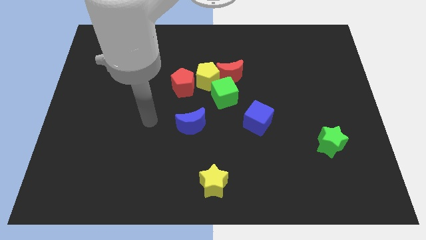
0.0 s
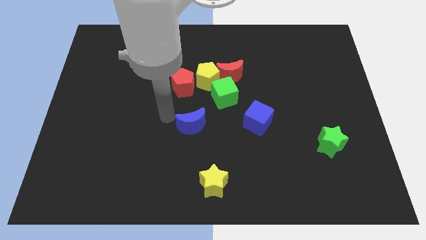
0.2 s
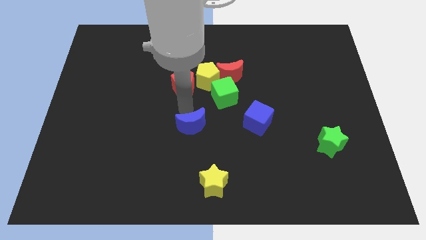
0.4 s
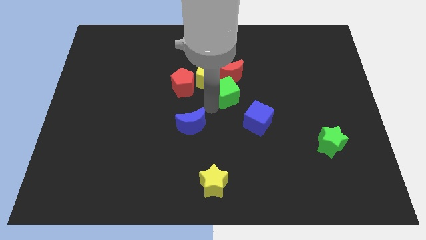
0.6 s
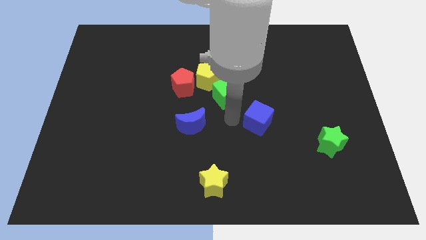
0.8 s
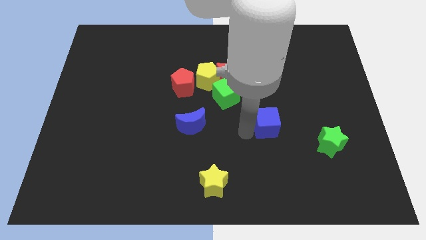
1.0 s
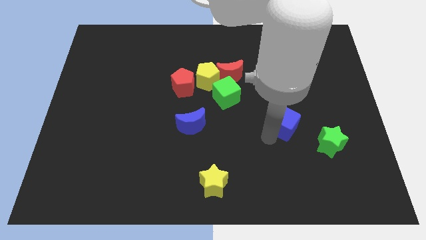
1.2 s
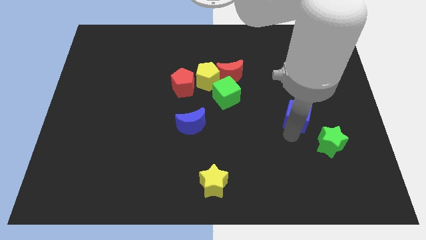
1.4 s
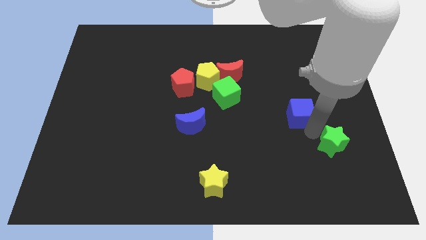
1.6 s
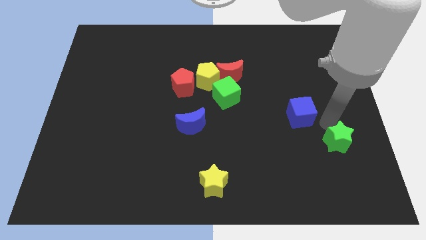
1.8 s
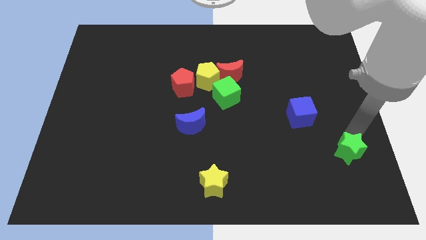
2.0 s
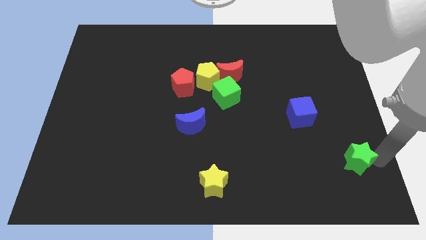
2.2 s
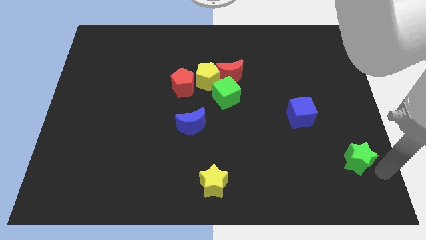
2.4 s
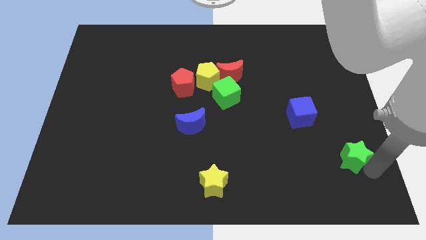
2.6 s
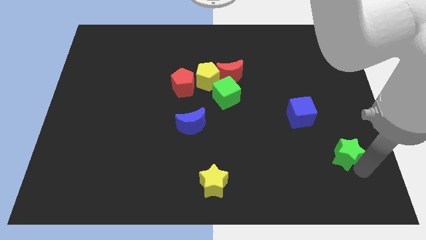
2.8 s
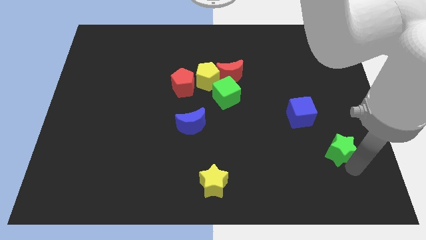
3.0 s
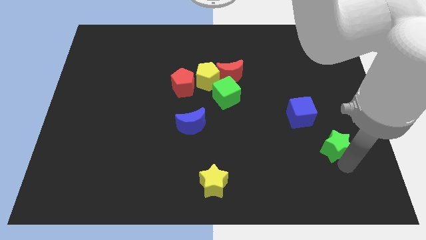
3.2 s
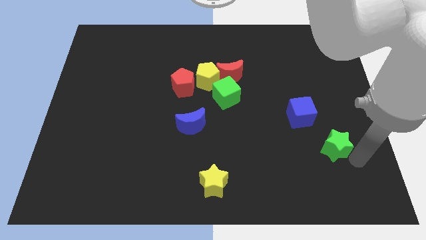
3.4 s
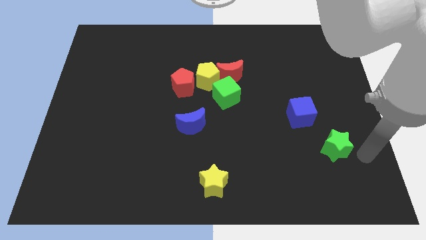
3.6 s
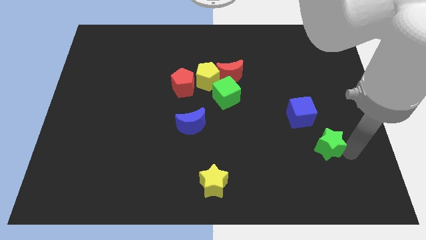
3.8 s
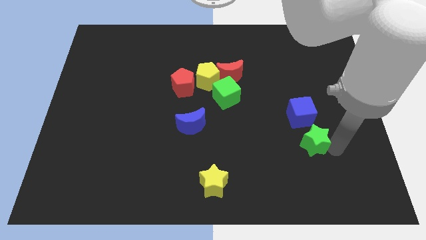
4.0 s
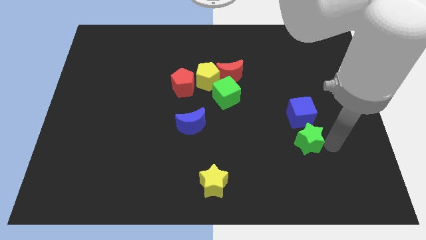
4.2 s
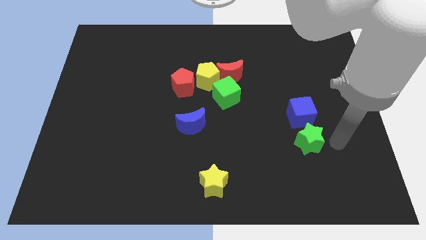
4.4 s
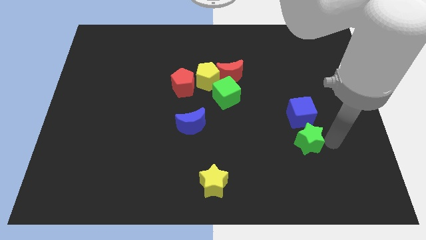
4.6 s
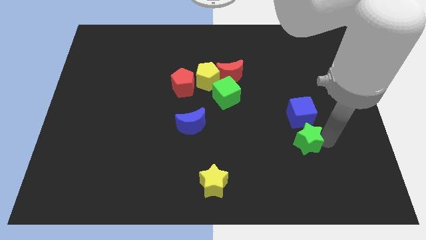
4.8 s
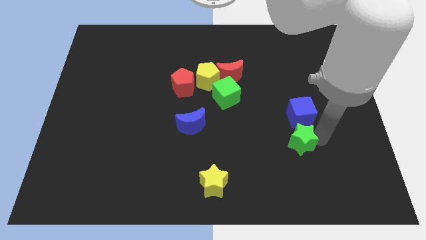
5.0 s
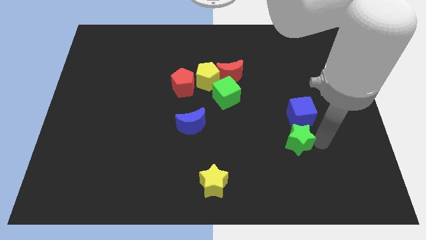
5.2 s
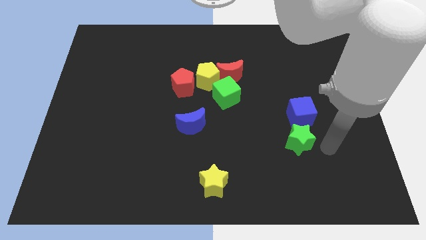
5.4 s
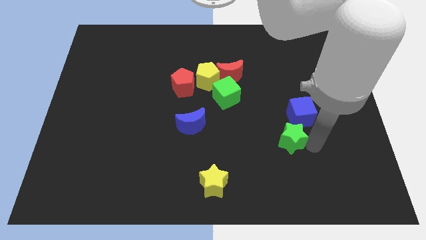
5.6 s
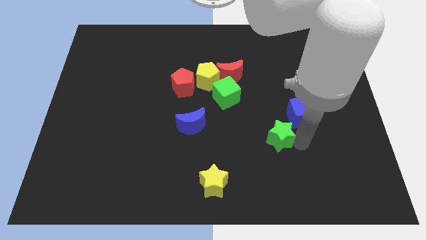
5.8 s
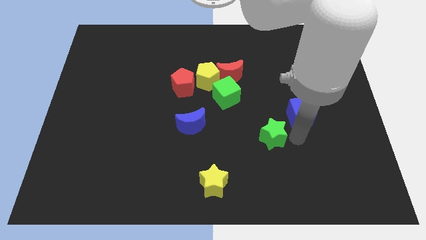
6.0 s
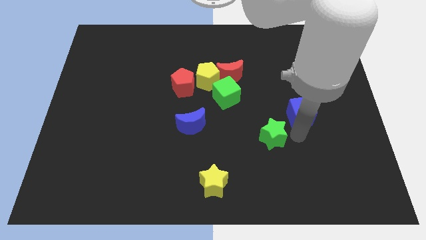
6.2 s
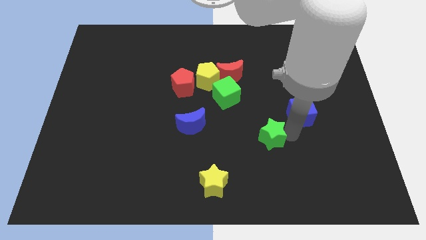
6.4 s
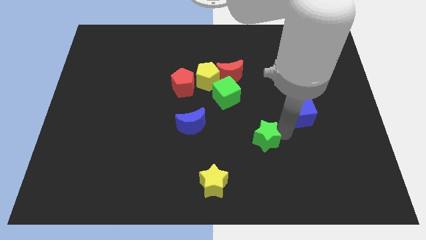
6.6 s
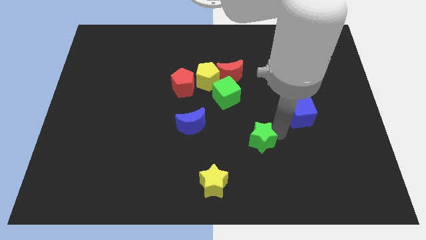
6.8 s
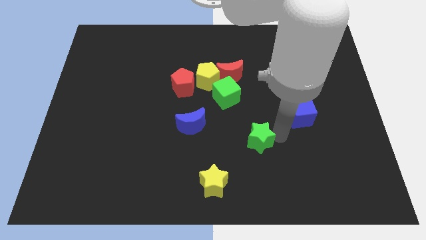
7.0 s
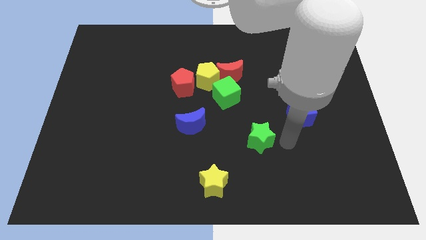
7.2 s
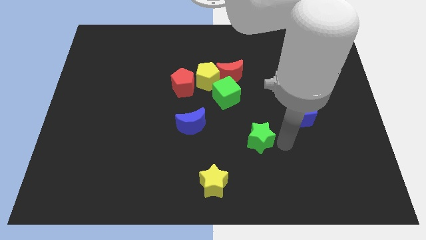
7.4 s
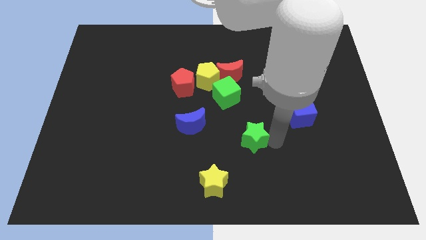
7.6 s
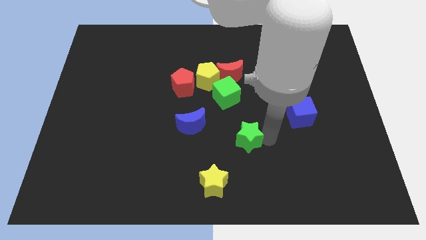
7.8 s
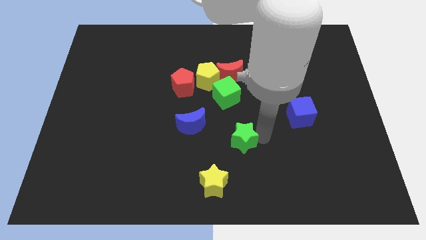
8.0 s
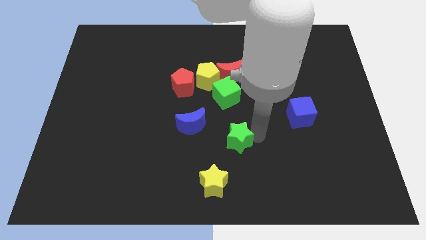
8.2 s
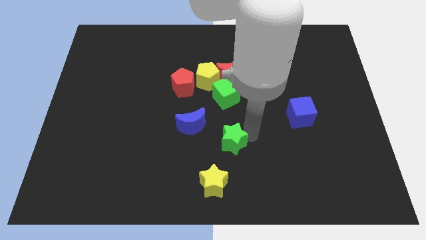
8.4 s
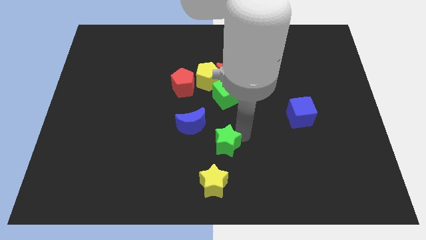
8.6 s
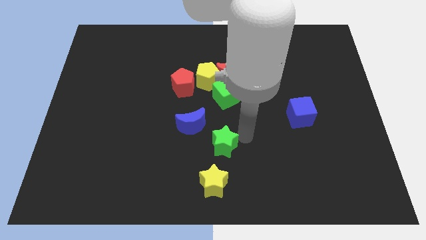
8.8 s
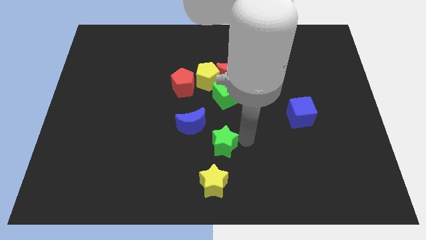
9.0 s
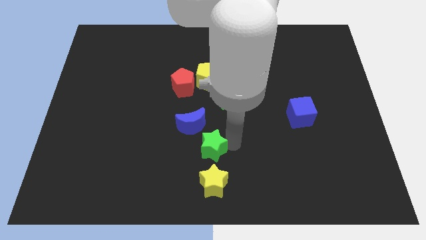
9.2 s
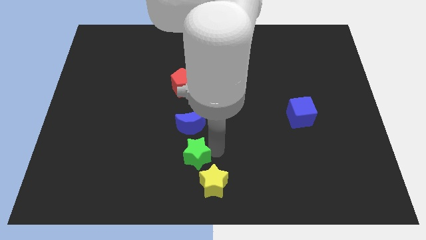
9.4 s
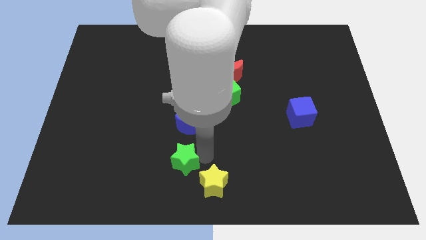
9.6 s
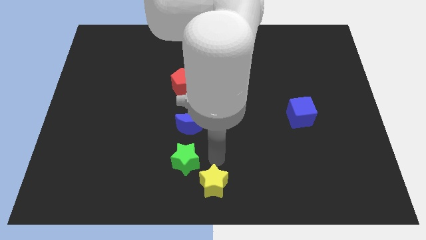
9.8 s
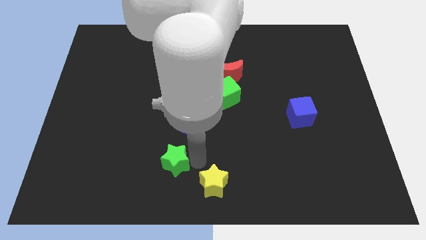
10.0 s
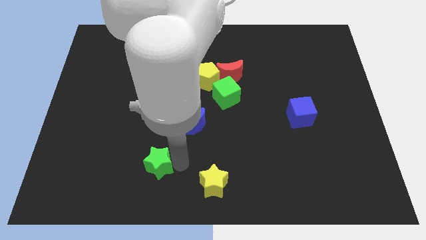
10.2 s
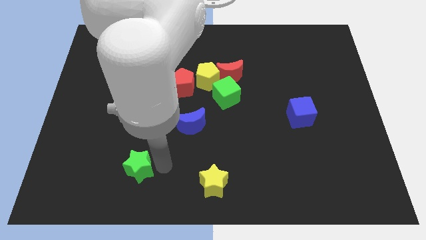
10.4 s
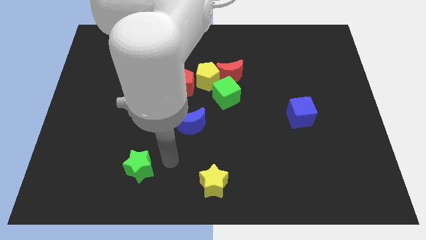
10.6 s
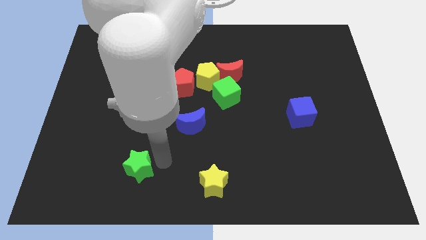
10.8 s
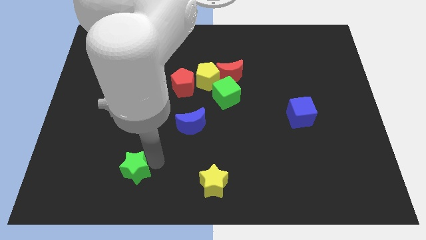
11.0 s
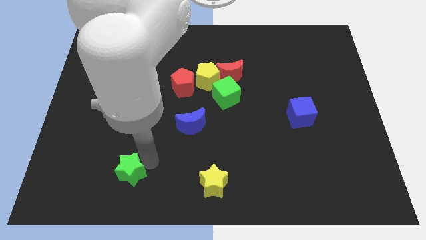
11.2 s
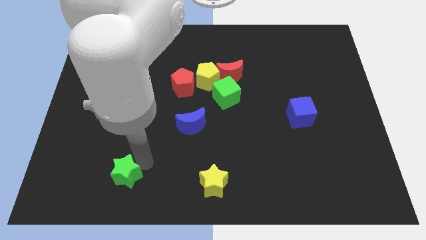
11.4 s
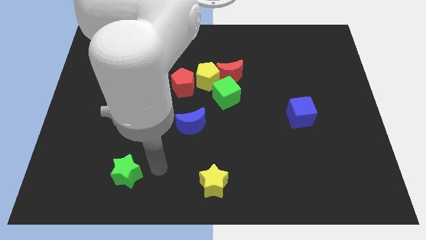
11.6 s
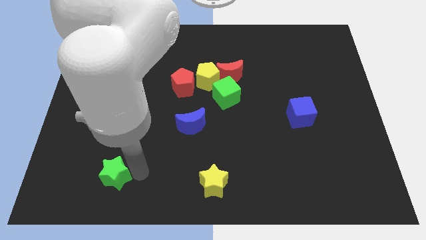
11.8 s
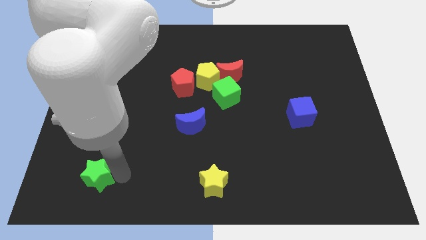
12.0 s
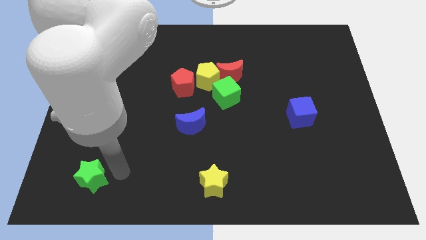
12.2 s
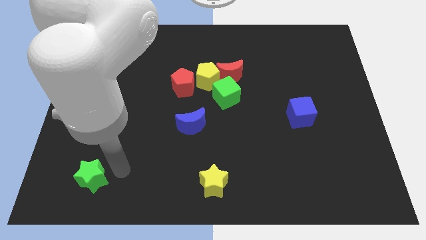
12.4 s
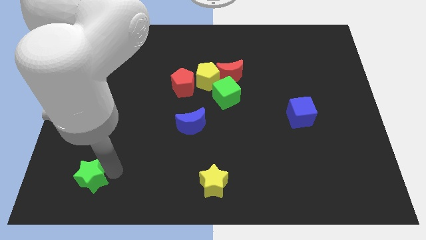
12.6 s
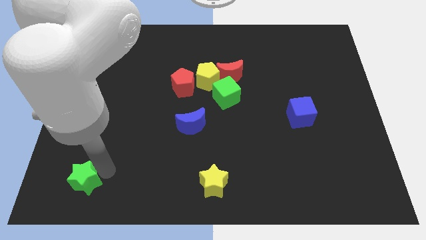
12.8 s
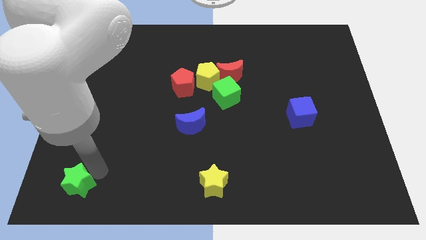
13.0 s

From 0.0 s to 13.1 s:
push the green star to the lower left corner

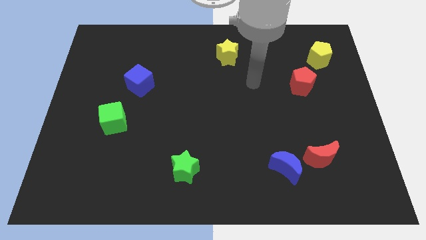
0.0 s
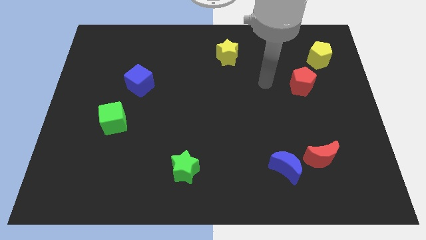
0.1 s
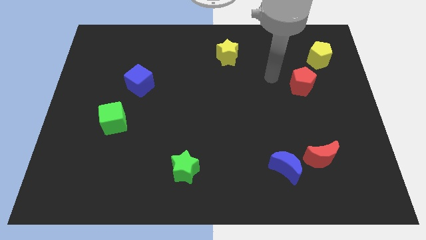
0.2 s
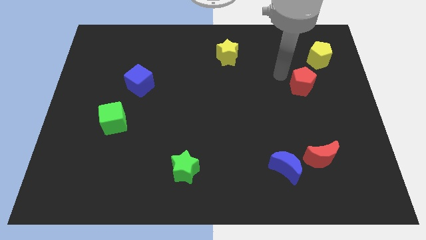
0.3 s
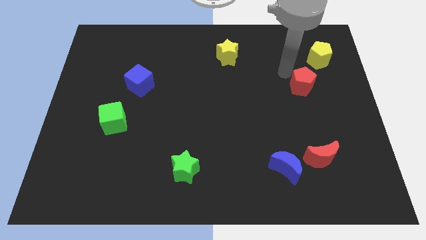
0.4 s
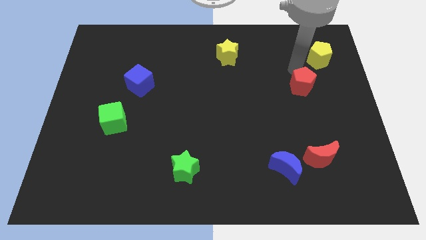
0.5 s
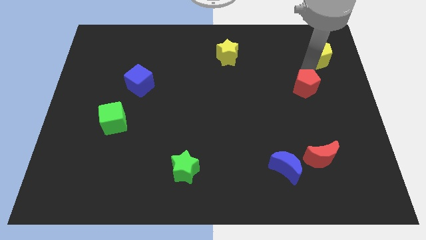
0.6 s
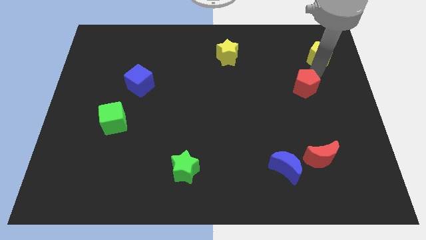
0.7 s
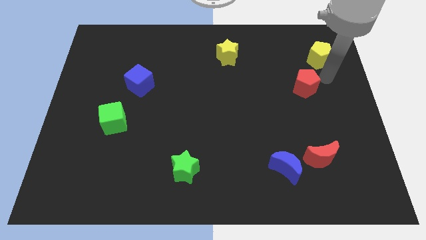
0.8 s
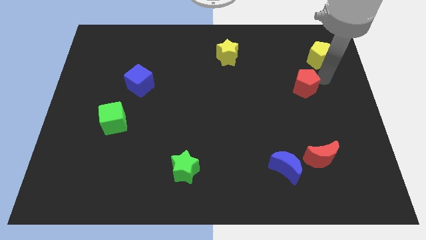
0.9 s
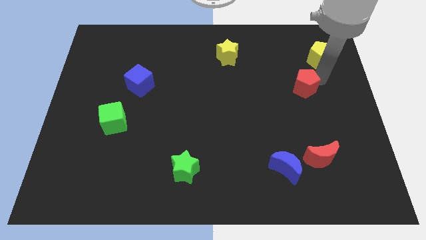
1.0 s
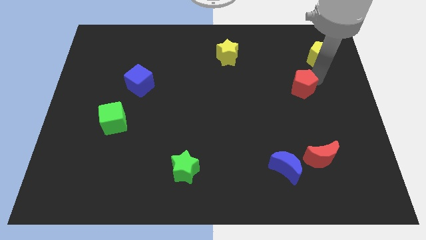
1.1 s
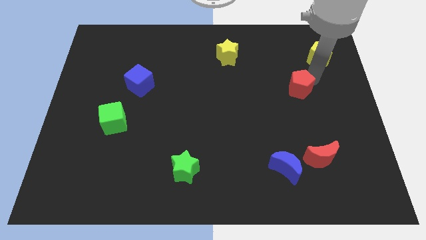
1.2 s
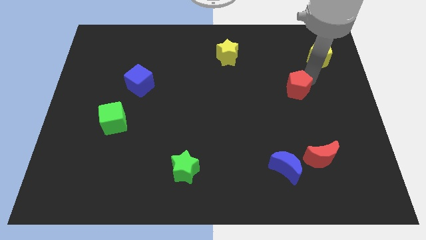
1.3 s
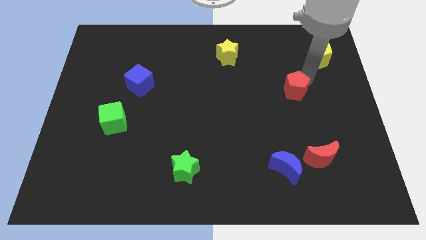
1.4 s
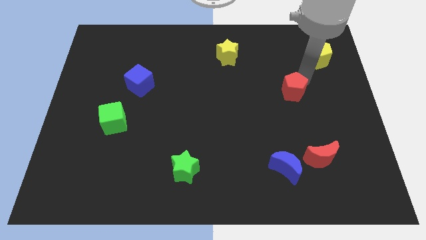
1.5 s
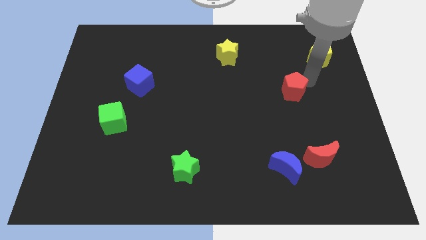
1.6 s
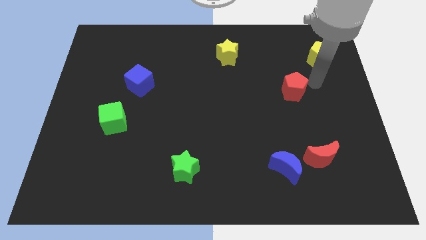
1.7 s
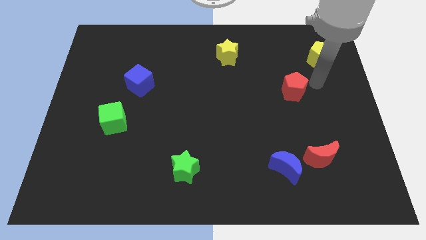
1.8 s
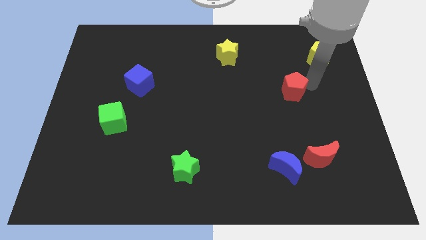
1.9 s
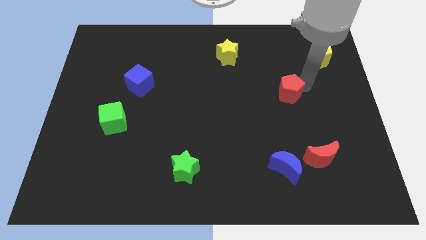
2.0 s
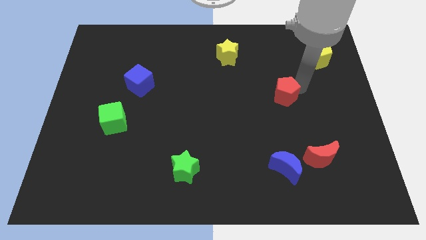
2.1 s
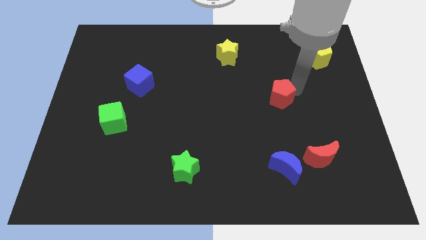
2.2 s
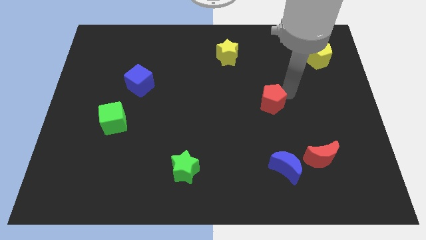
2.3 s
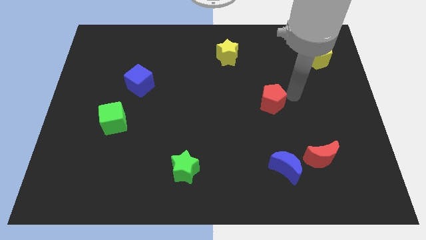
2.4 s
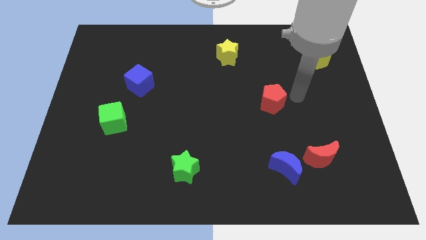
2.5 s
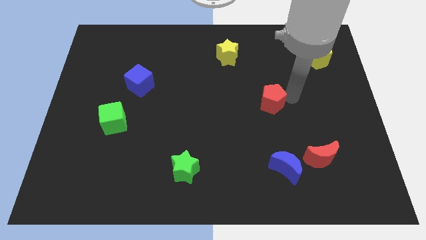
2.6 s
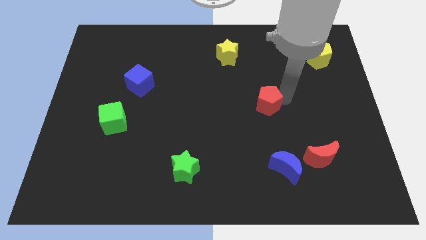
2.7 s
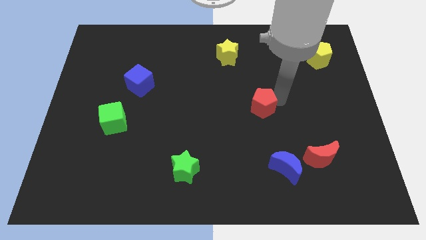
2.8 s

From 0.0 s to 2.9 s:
slide the red pentagon to the middle of the board
